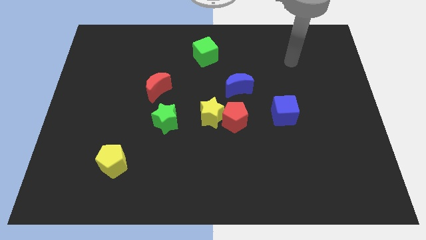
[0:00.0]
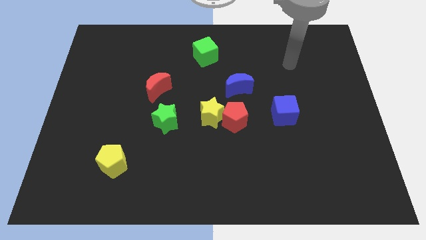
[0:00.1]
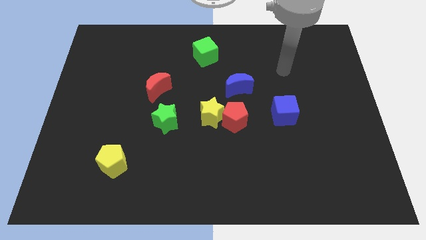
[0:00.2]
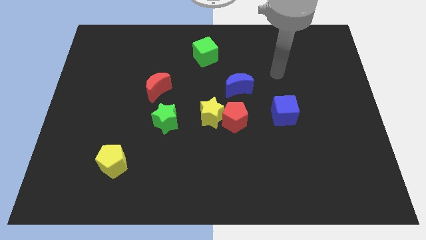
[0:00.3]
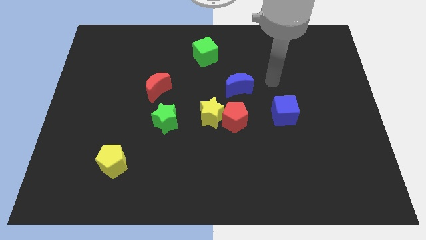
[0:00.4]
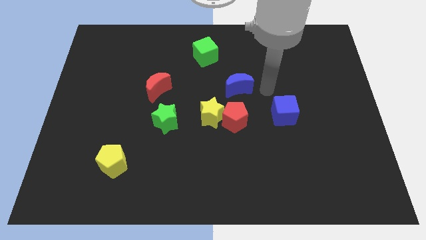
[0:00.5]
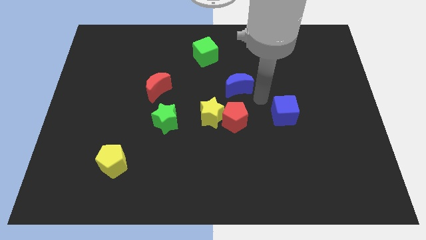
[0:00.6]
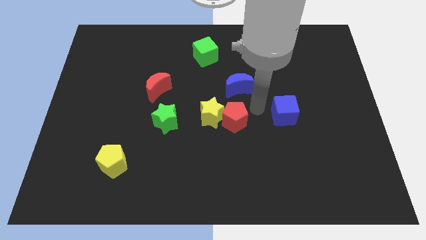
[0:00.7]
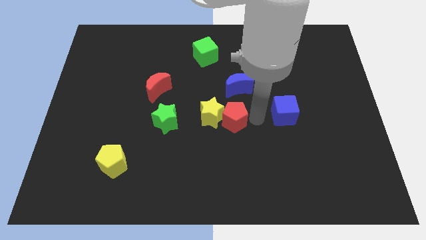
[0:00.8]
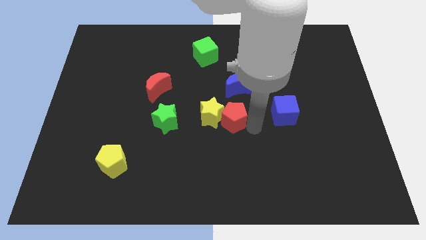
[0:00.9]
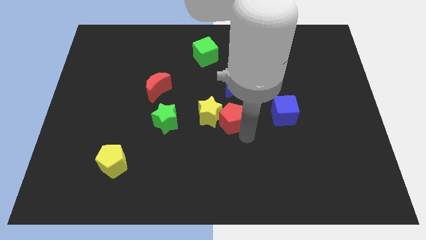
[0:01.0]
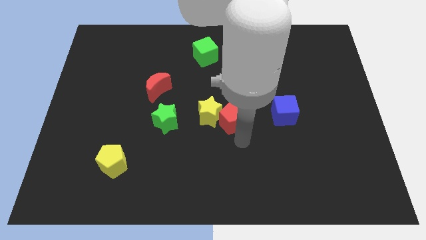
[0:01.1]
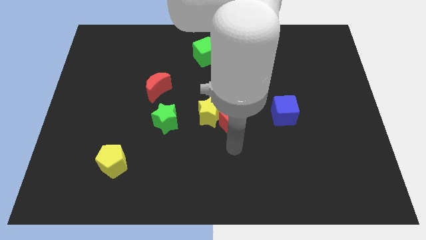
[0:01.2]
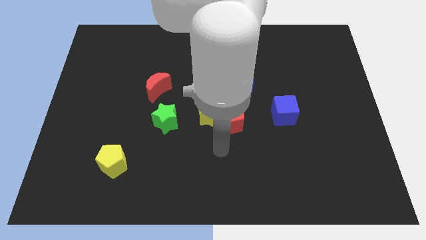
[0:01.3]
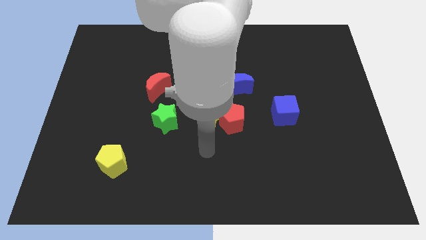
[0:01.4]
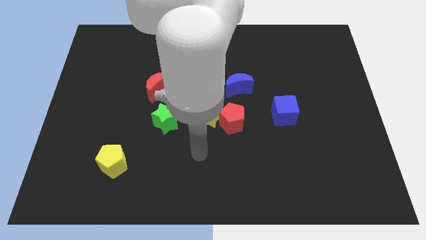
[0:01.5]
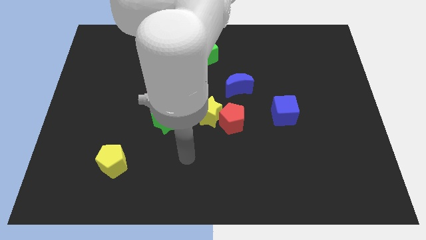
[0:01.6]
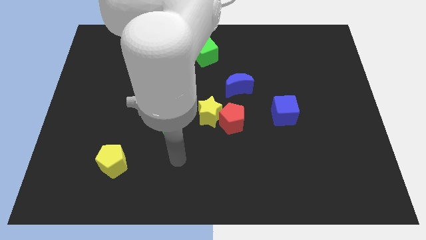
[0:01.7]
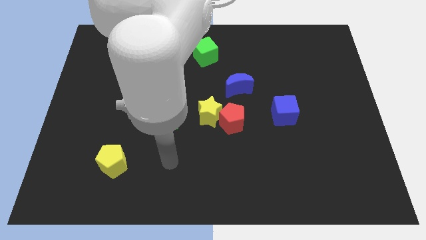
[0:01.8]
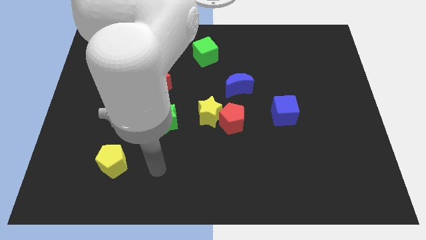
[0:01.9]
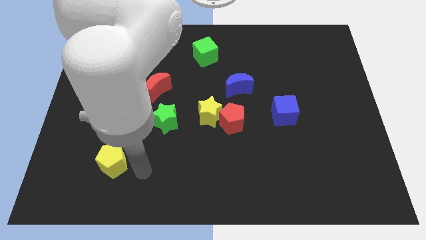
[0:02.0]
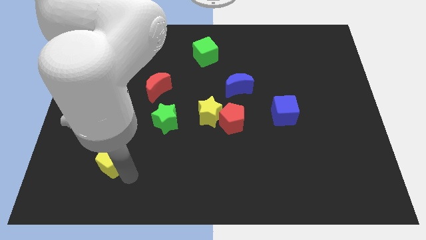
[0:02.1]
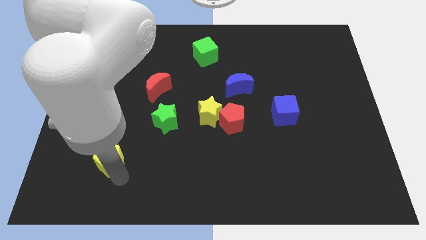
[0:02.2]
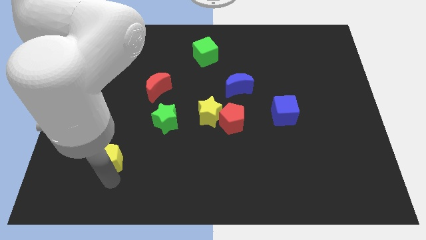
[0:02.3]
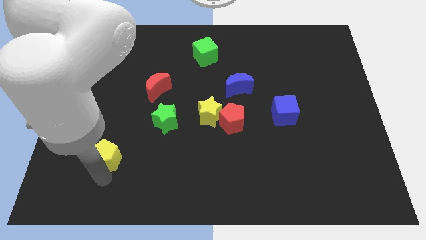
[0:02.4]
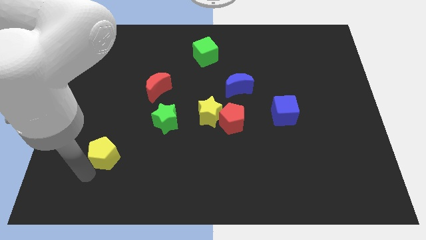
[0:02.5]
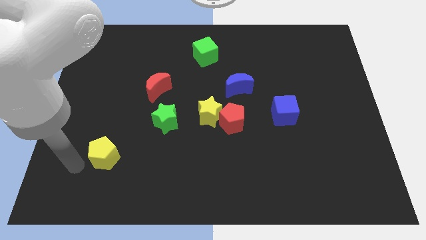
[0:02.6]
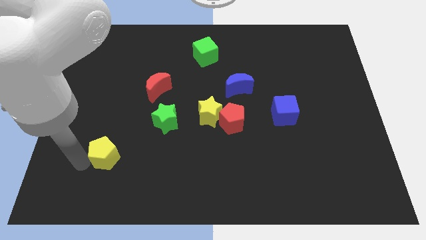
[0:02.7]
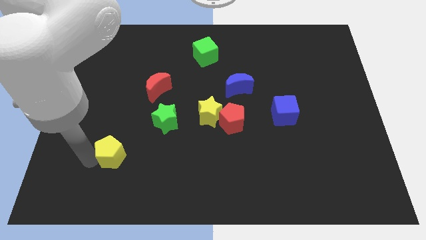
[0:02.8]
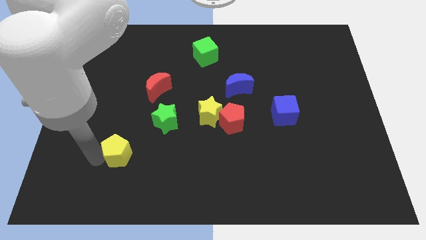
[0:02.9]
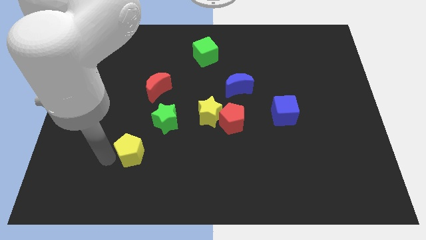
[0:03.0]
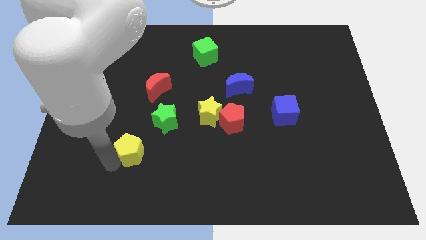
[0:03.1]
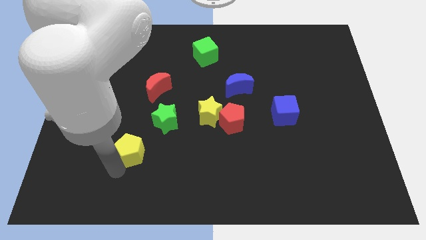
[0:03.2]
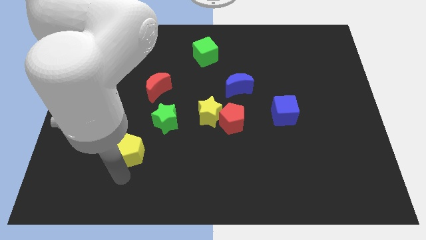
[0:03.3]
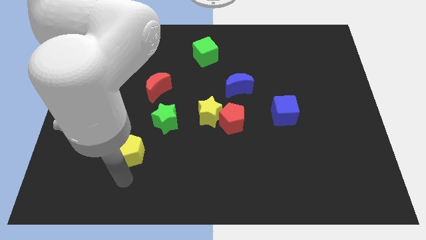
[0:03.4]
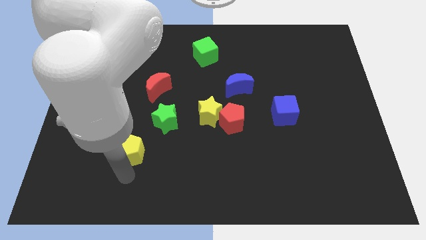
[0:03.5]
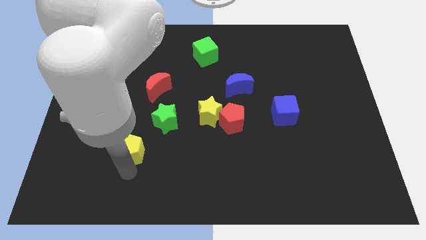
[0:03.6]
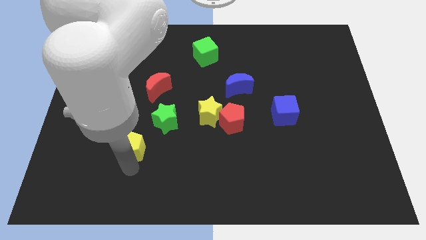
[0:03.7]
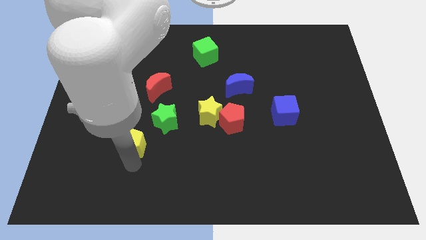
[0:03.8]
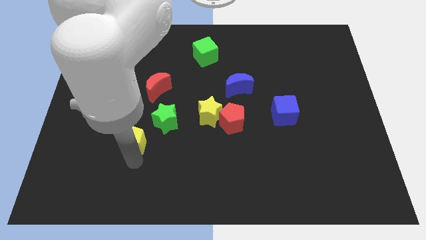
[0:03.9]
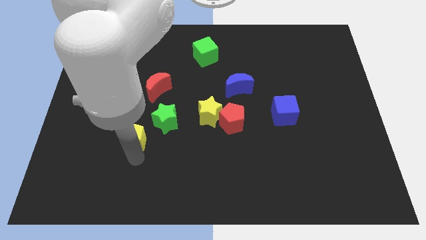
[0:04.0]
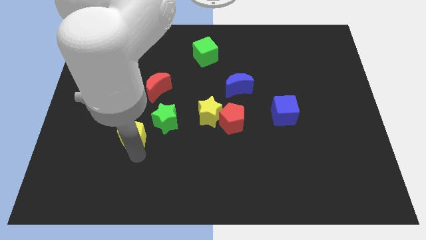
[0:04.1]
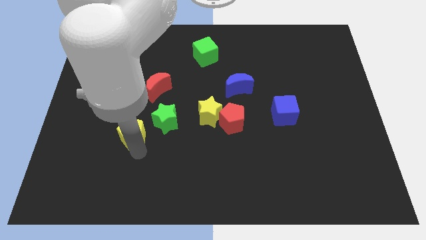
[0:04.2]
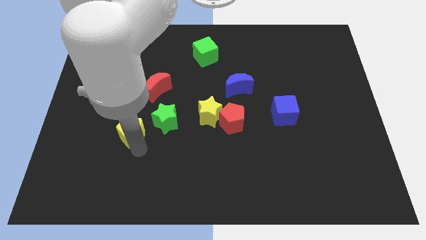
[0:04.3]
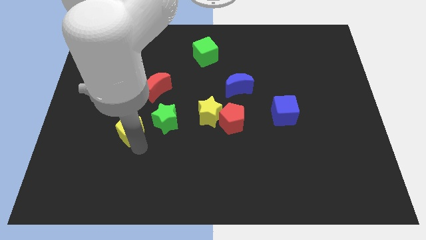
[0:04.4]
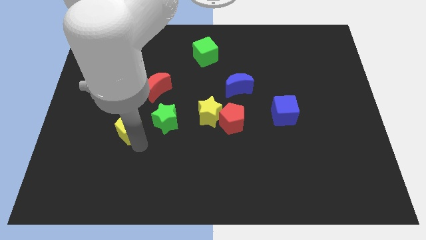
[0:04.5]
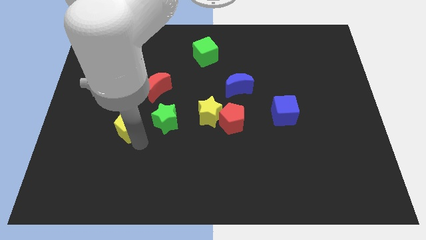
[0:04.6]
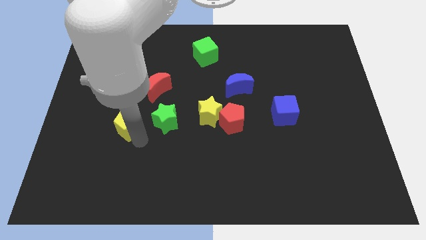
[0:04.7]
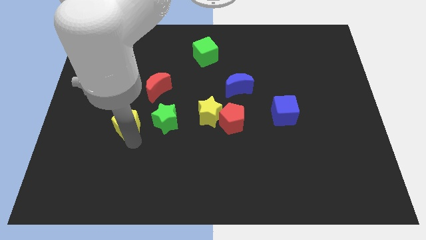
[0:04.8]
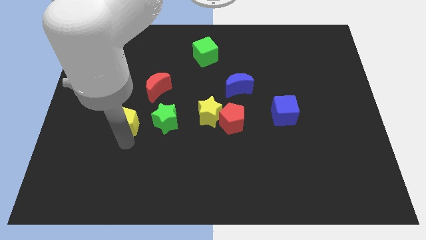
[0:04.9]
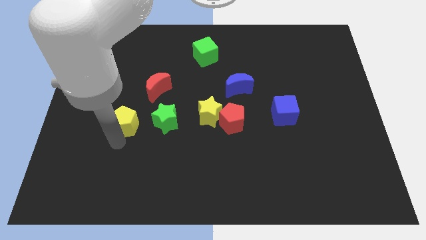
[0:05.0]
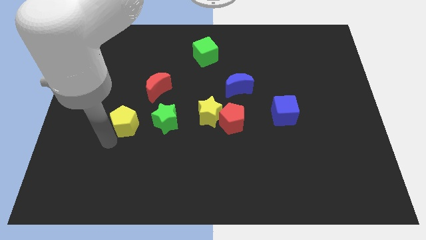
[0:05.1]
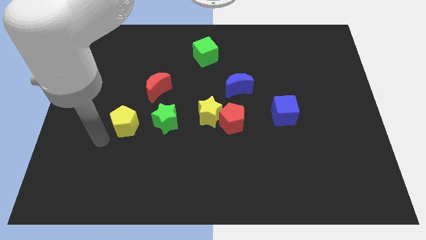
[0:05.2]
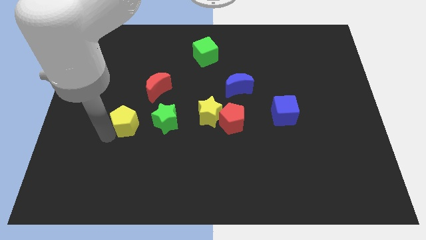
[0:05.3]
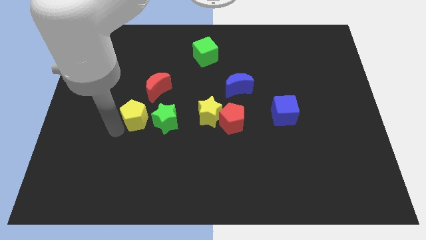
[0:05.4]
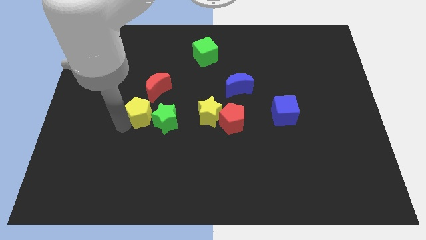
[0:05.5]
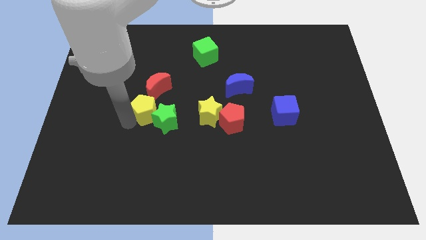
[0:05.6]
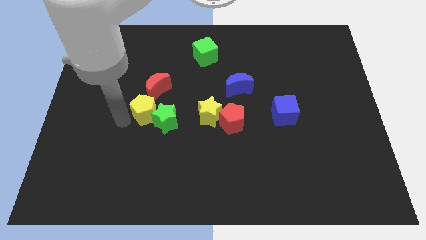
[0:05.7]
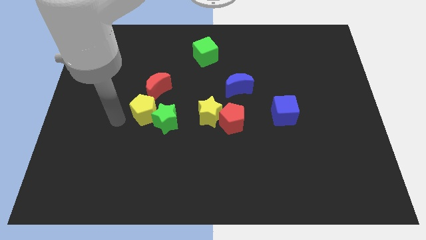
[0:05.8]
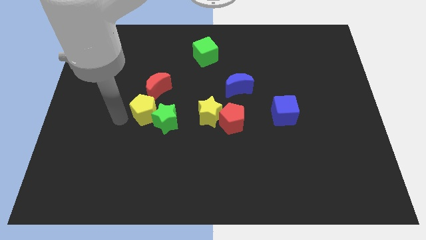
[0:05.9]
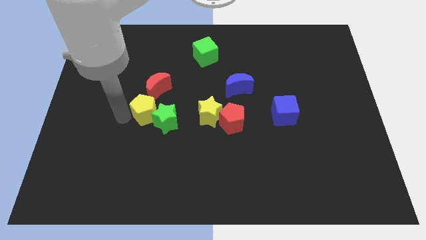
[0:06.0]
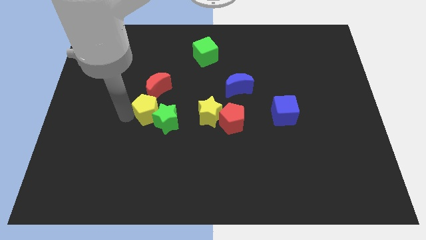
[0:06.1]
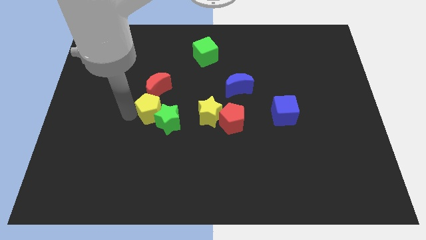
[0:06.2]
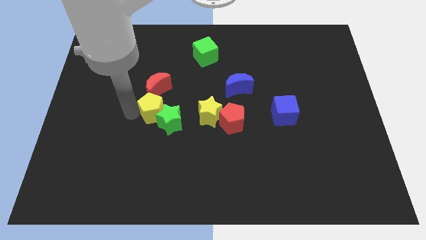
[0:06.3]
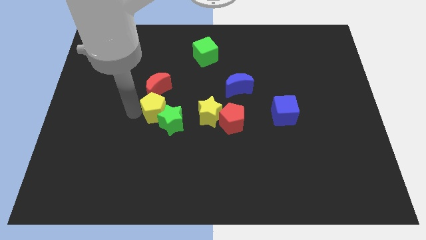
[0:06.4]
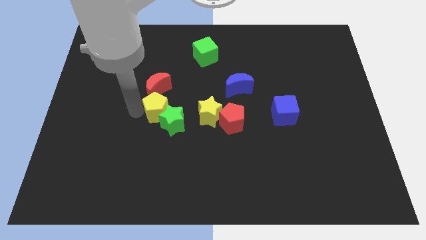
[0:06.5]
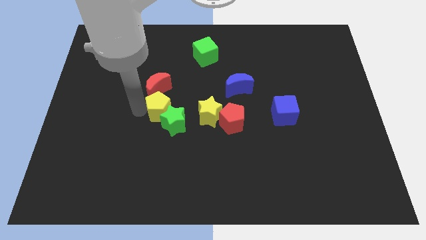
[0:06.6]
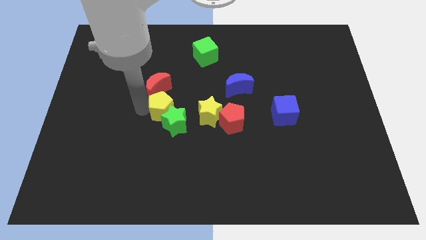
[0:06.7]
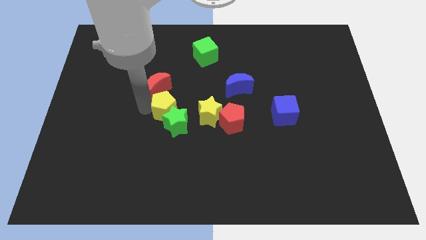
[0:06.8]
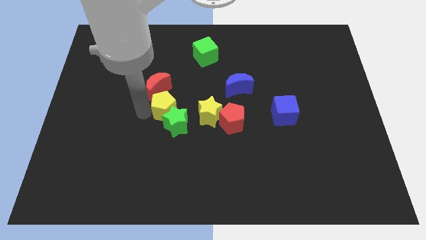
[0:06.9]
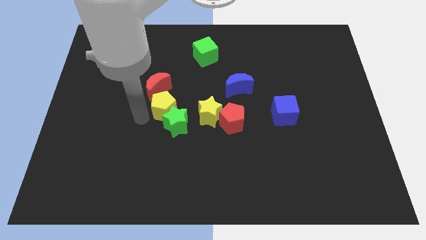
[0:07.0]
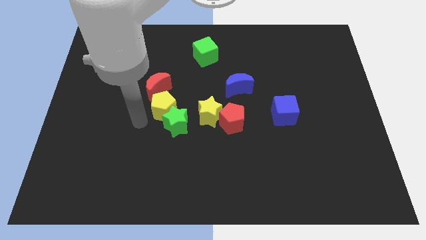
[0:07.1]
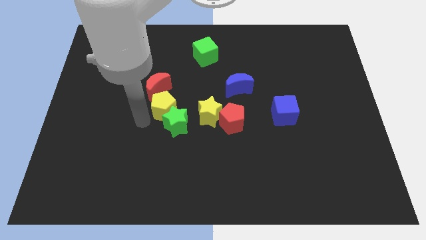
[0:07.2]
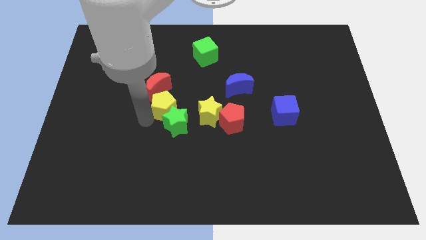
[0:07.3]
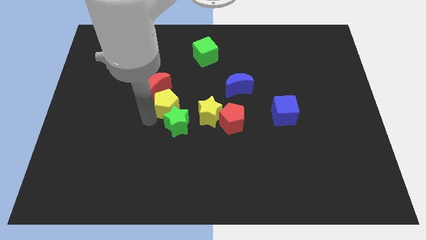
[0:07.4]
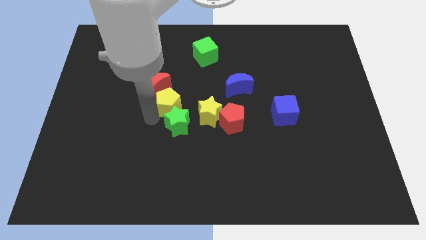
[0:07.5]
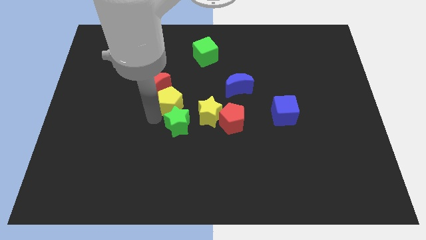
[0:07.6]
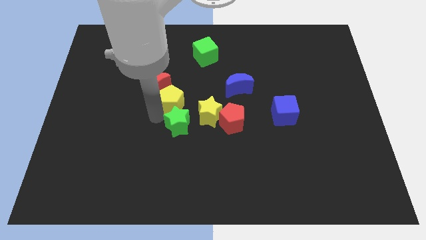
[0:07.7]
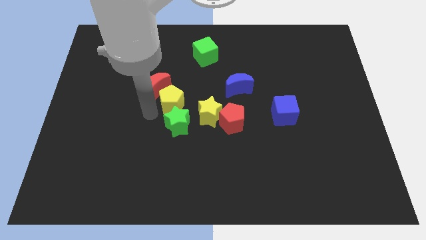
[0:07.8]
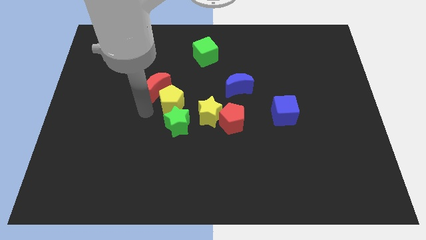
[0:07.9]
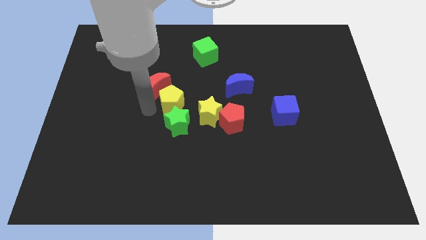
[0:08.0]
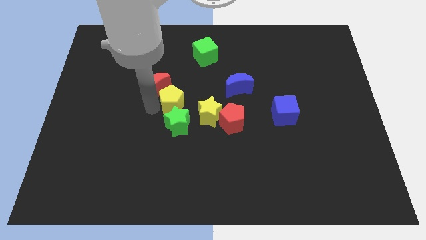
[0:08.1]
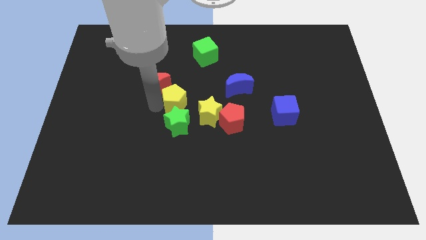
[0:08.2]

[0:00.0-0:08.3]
slide the yellow pentagon upwards and then to the right
